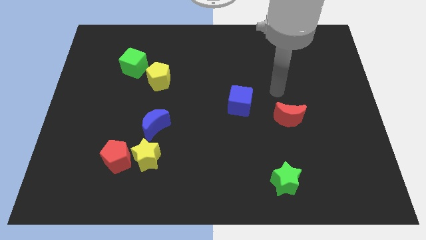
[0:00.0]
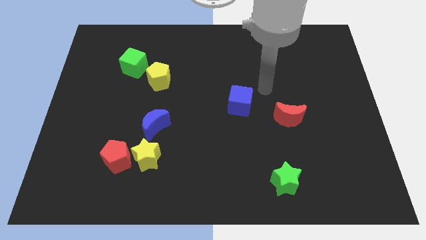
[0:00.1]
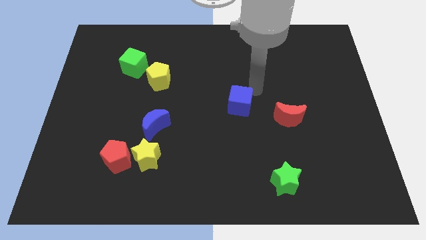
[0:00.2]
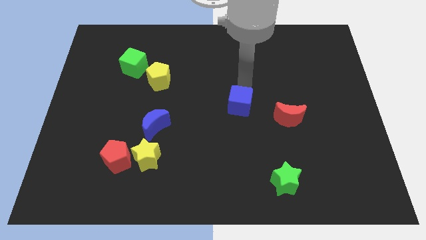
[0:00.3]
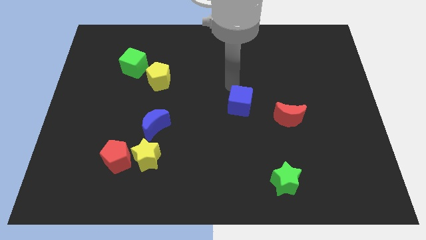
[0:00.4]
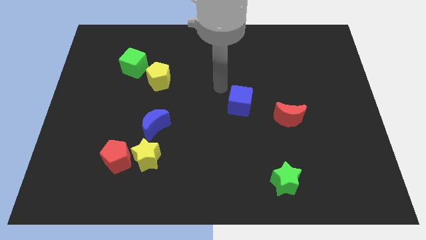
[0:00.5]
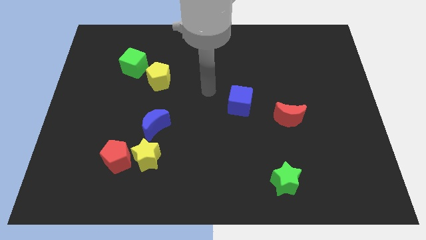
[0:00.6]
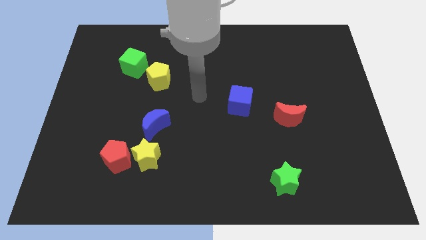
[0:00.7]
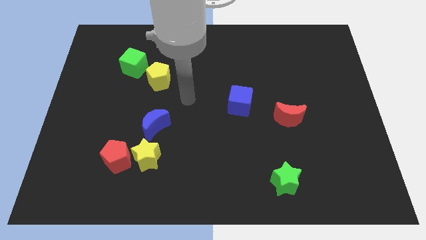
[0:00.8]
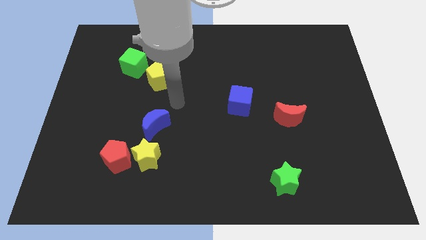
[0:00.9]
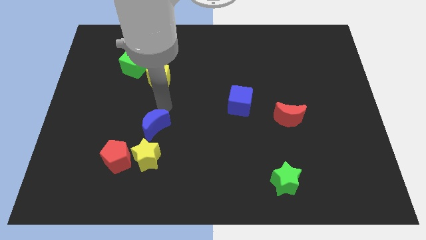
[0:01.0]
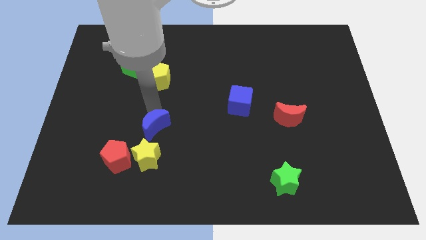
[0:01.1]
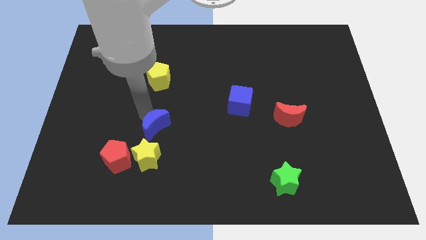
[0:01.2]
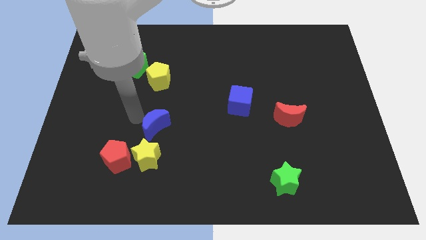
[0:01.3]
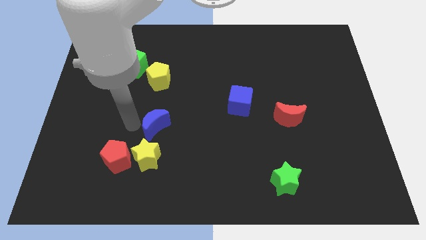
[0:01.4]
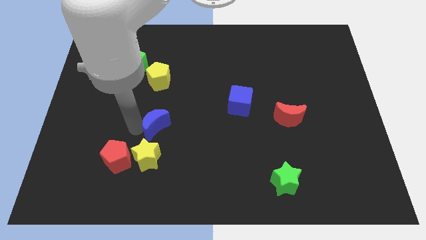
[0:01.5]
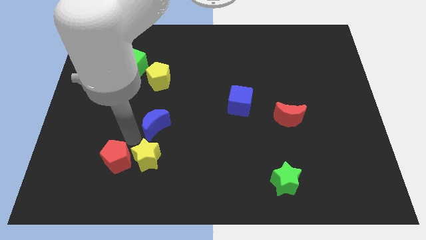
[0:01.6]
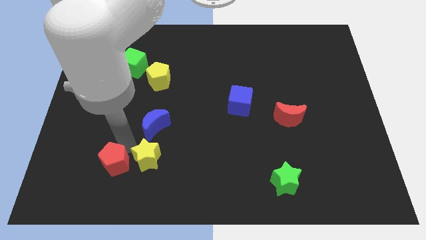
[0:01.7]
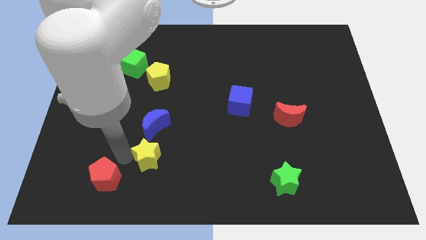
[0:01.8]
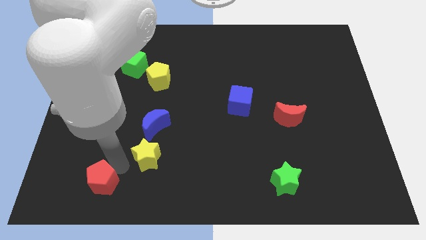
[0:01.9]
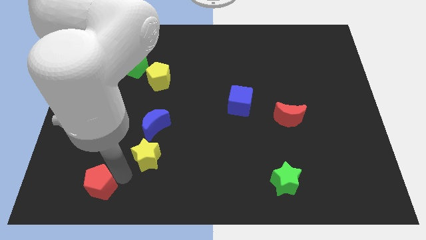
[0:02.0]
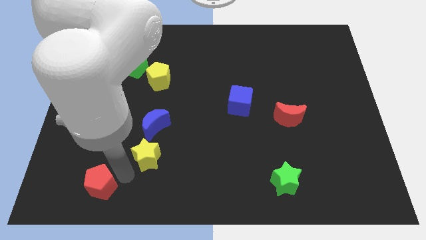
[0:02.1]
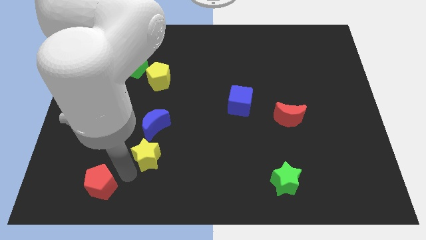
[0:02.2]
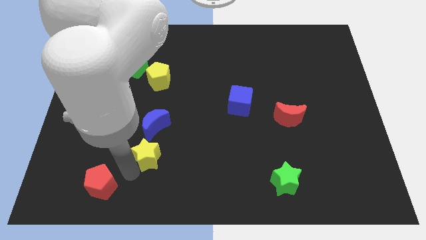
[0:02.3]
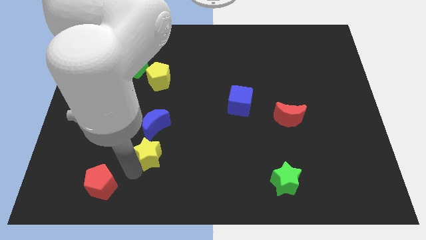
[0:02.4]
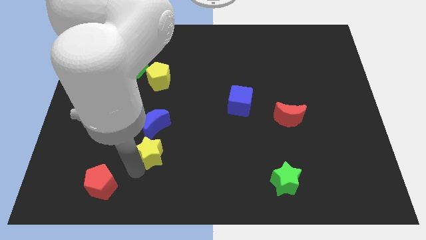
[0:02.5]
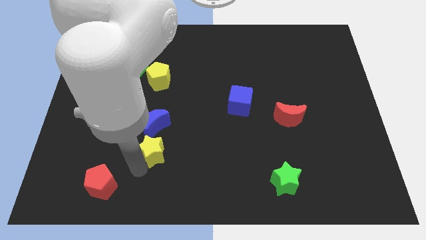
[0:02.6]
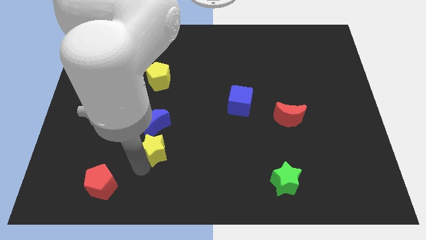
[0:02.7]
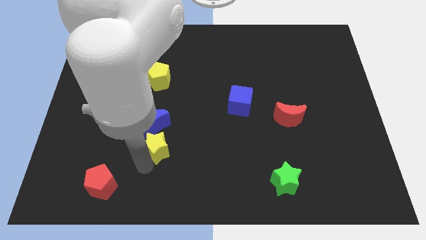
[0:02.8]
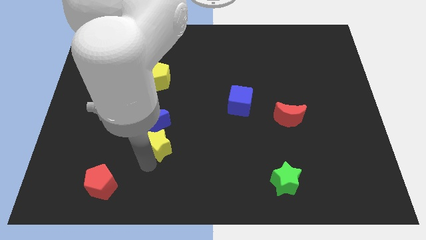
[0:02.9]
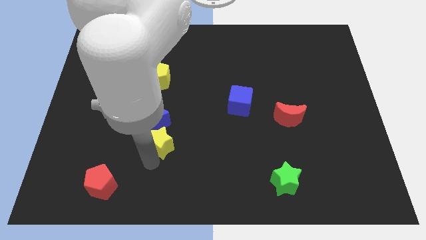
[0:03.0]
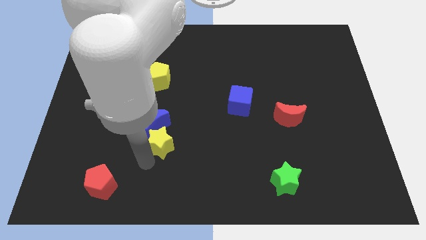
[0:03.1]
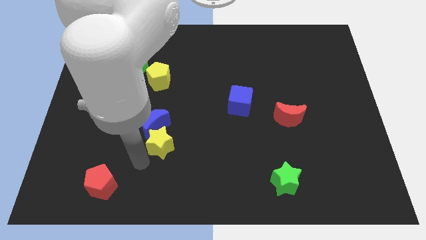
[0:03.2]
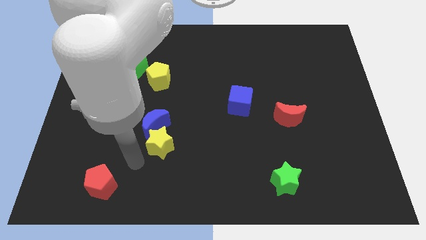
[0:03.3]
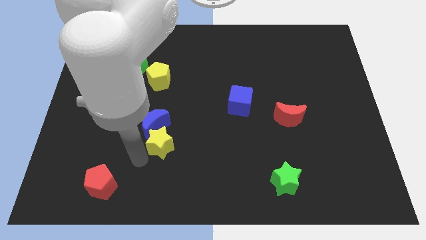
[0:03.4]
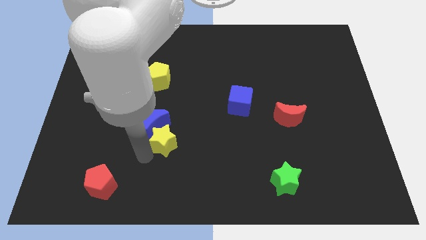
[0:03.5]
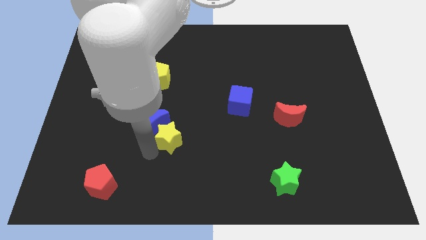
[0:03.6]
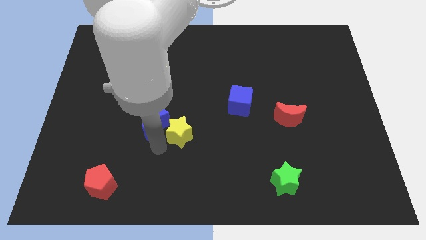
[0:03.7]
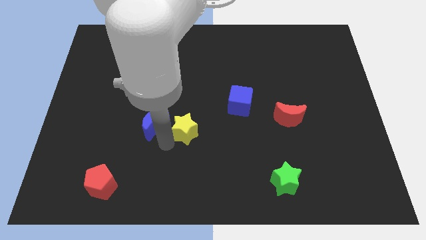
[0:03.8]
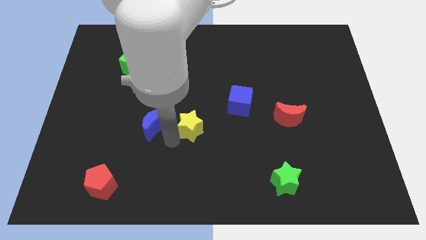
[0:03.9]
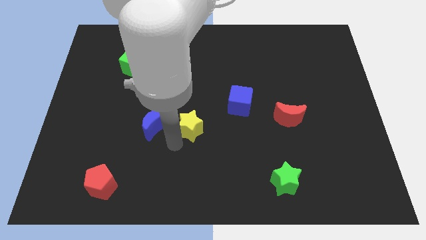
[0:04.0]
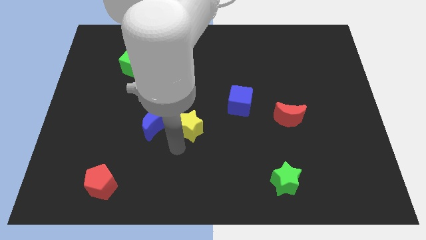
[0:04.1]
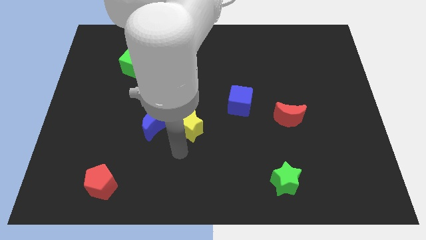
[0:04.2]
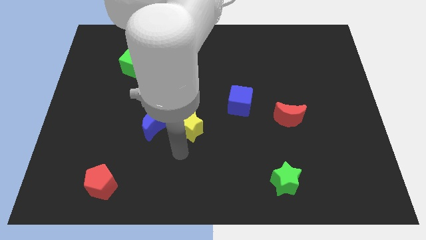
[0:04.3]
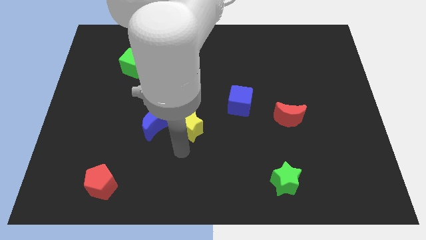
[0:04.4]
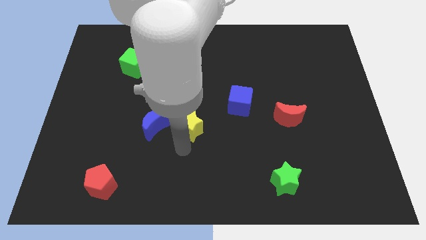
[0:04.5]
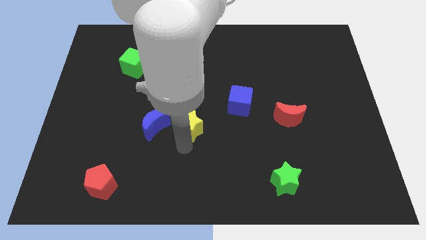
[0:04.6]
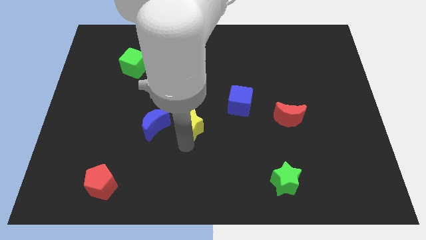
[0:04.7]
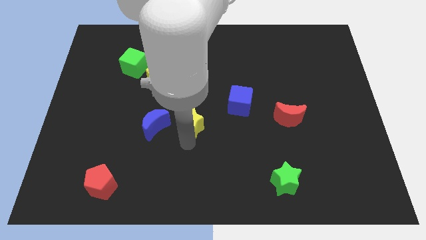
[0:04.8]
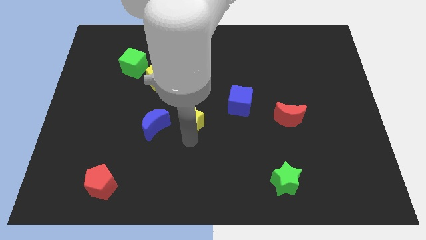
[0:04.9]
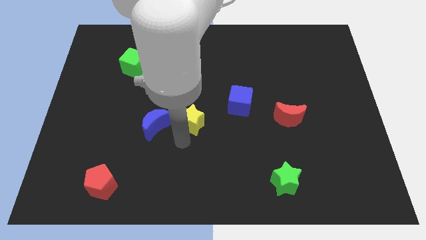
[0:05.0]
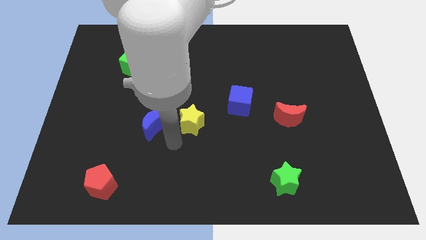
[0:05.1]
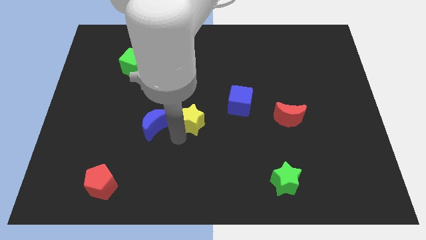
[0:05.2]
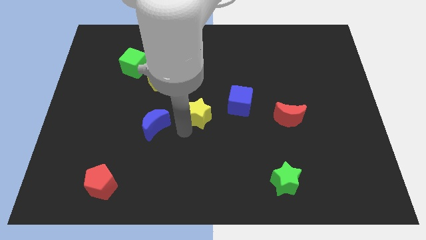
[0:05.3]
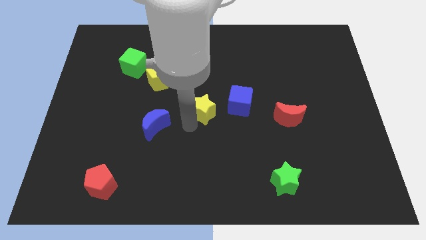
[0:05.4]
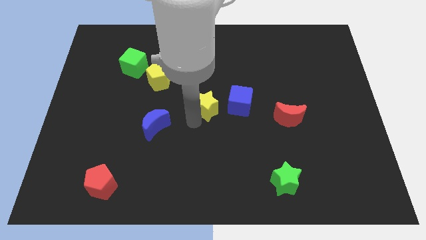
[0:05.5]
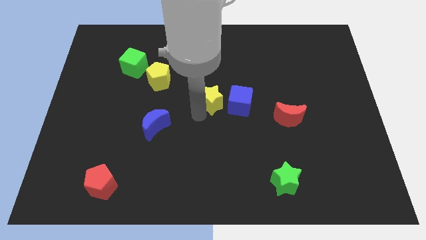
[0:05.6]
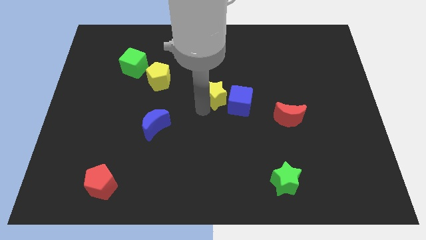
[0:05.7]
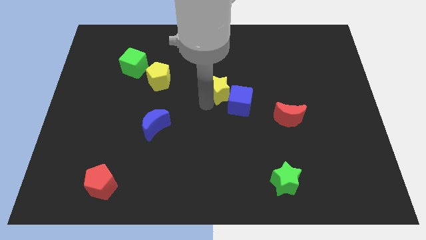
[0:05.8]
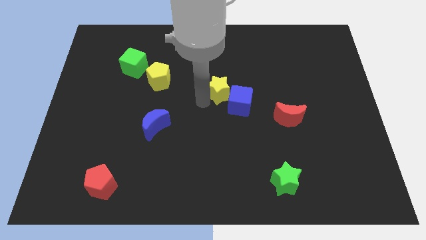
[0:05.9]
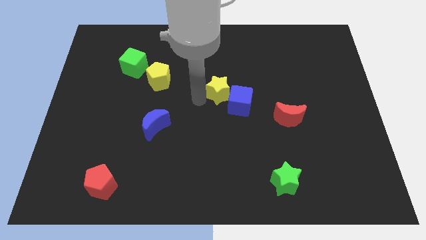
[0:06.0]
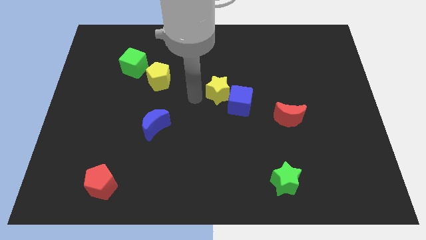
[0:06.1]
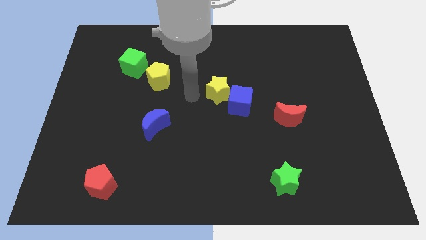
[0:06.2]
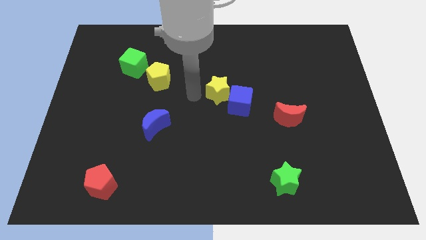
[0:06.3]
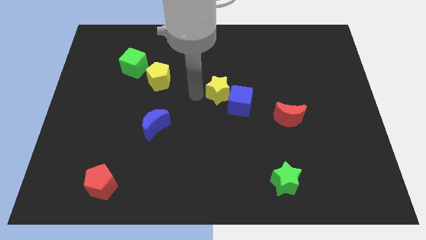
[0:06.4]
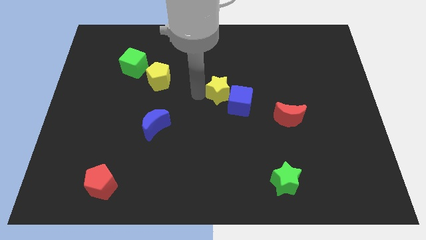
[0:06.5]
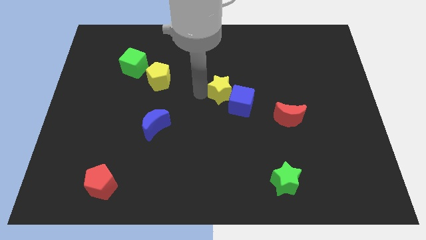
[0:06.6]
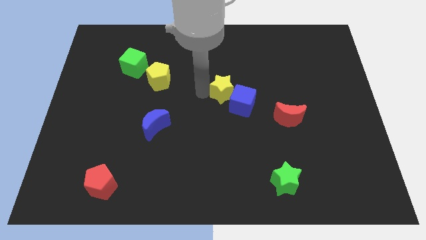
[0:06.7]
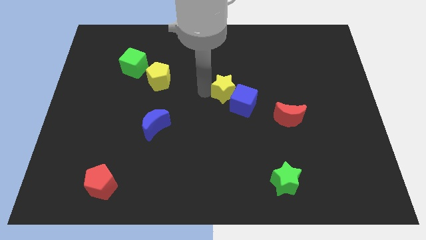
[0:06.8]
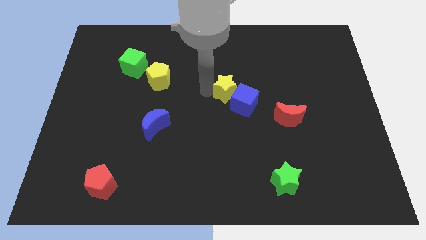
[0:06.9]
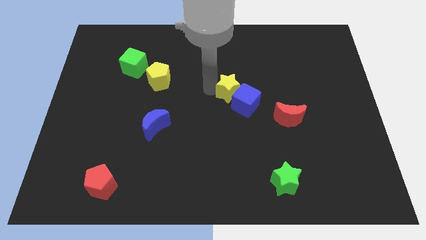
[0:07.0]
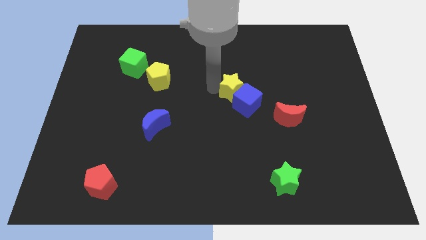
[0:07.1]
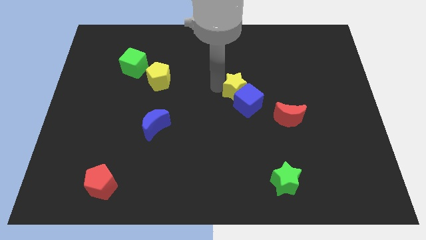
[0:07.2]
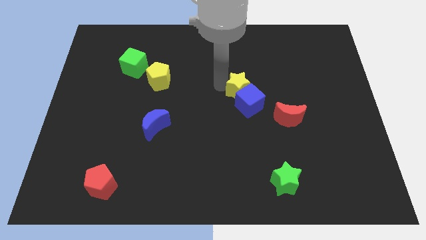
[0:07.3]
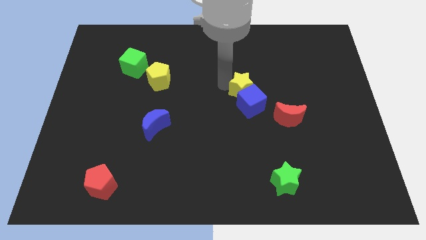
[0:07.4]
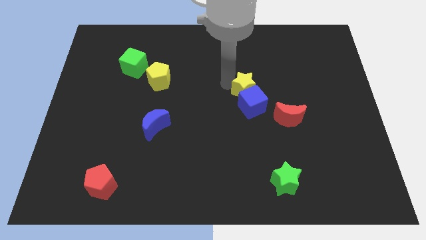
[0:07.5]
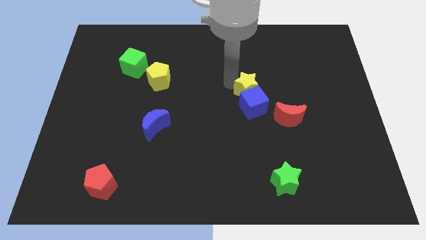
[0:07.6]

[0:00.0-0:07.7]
slide the yellow star to the top right side of the blue cube
